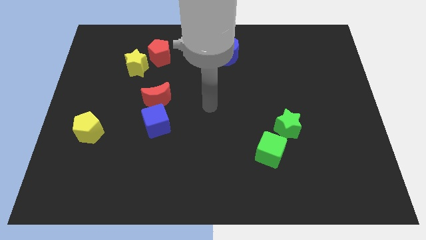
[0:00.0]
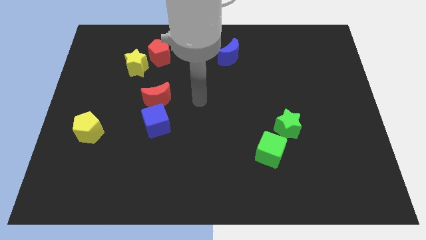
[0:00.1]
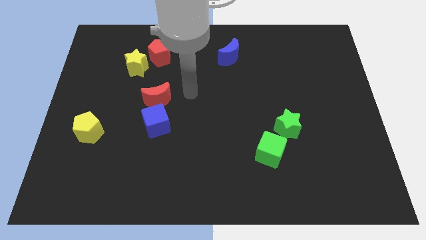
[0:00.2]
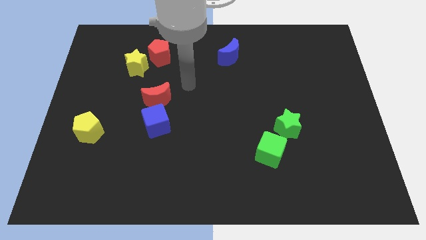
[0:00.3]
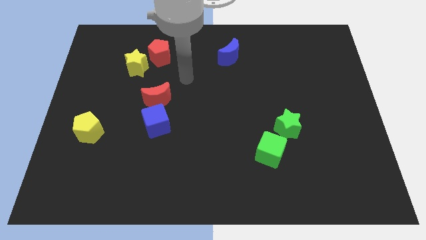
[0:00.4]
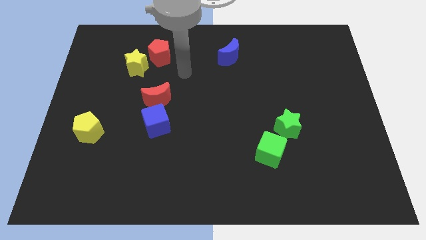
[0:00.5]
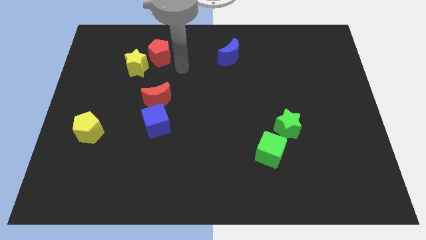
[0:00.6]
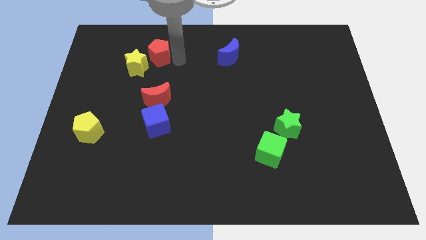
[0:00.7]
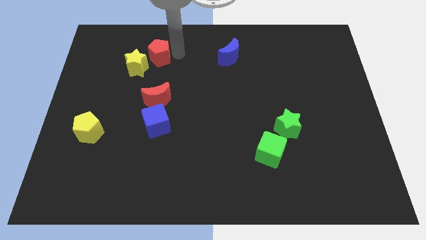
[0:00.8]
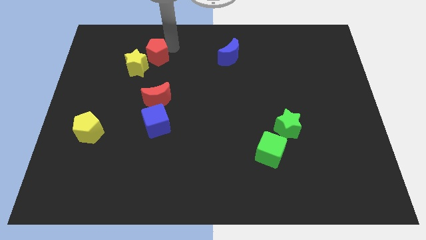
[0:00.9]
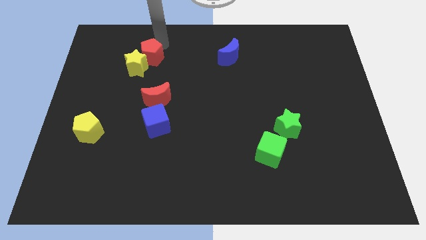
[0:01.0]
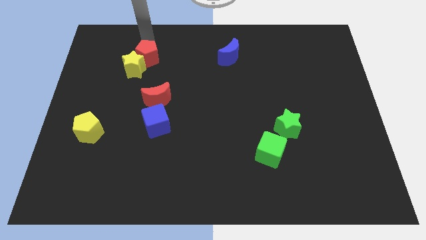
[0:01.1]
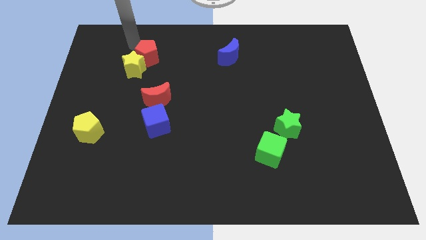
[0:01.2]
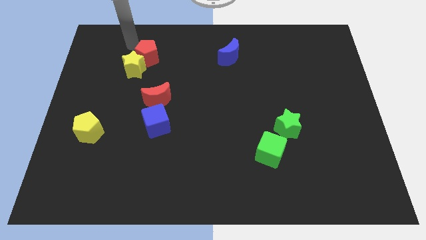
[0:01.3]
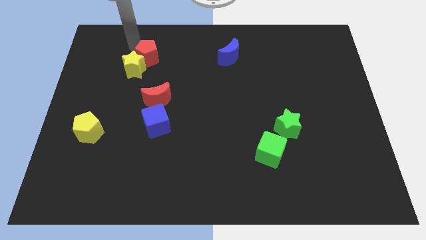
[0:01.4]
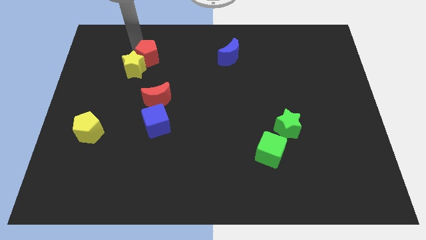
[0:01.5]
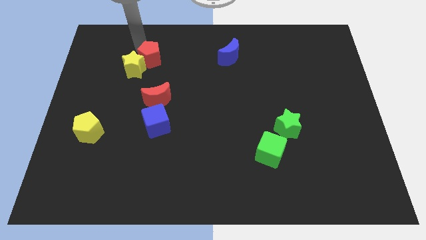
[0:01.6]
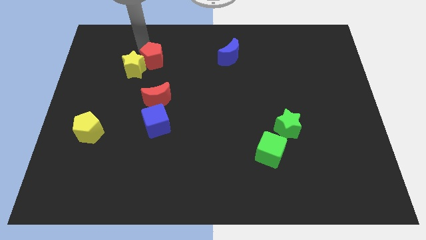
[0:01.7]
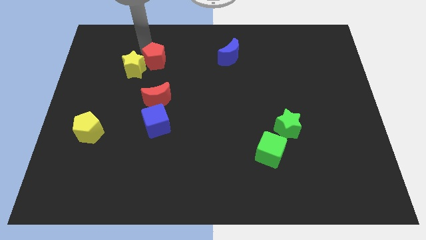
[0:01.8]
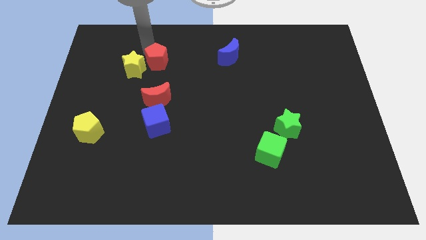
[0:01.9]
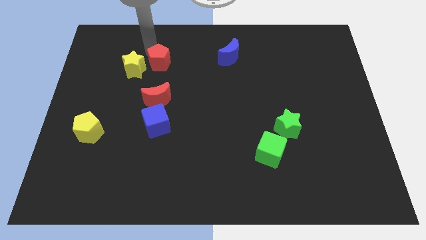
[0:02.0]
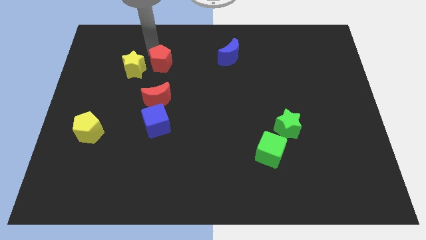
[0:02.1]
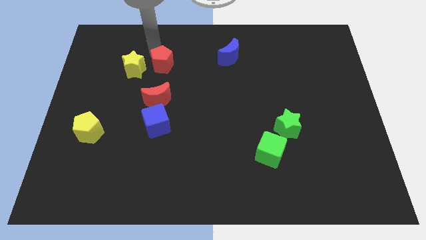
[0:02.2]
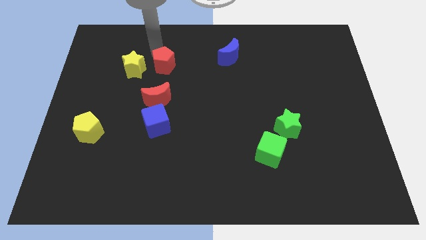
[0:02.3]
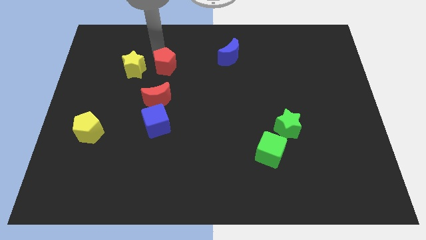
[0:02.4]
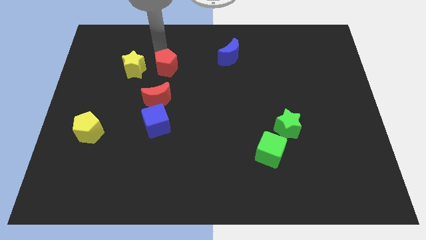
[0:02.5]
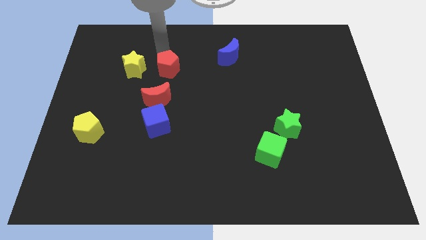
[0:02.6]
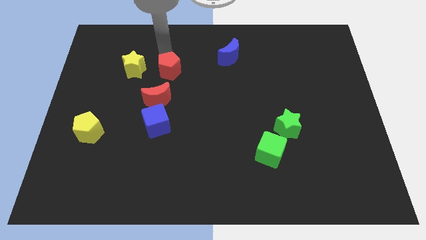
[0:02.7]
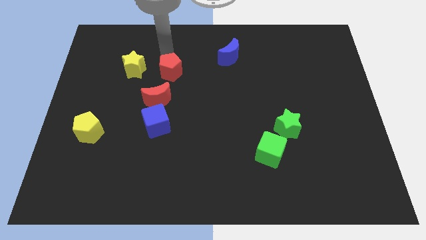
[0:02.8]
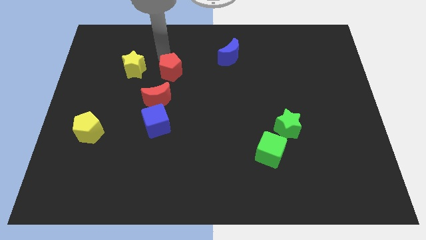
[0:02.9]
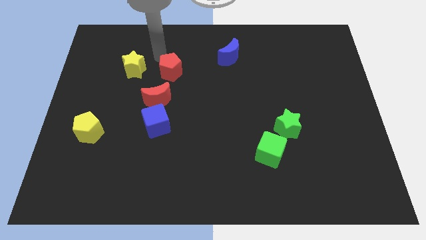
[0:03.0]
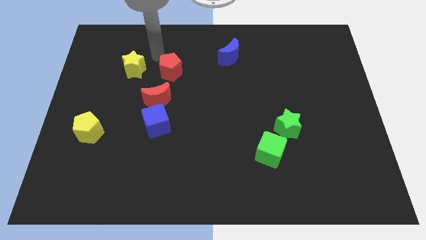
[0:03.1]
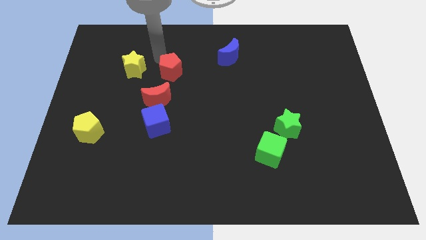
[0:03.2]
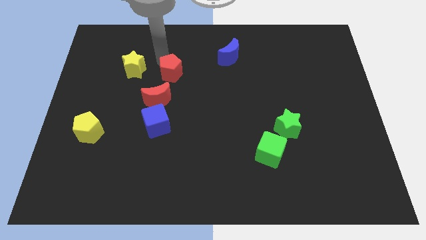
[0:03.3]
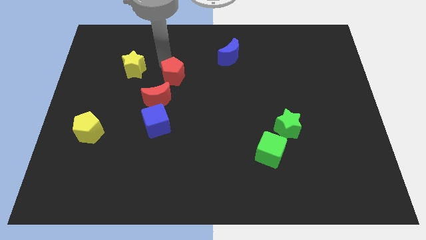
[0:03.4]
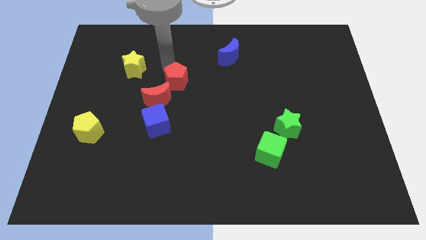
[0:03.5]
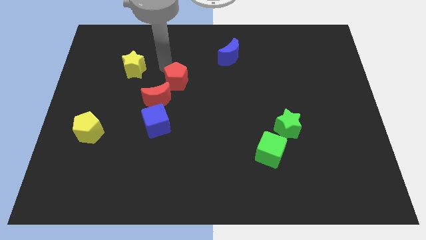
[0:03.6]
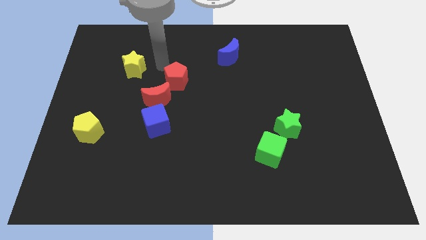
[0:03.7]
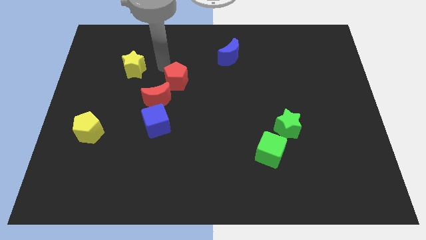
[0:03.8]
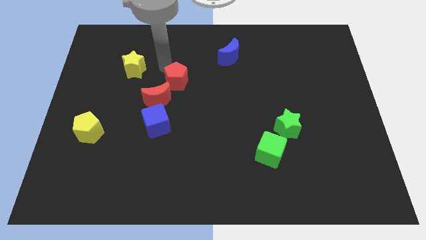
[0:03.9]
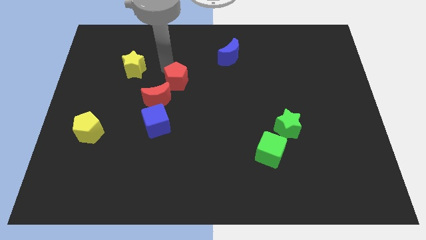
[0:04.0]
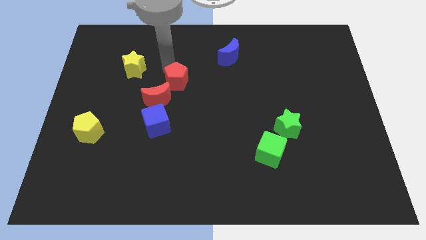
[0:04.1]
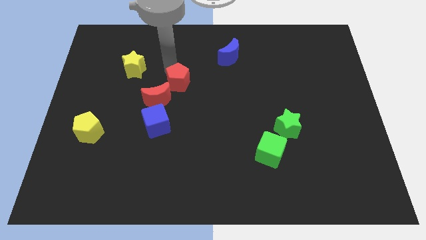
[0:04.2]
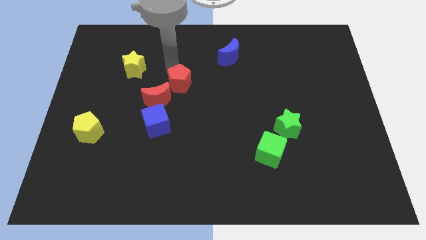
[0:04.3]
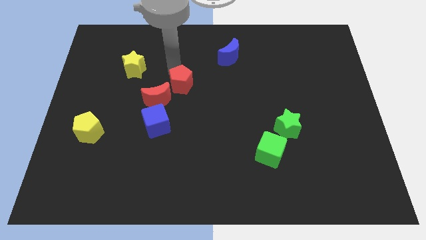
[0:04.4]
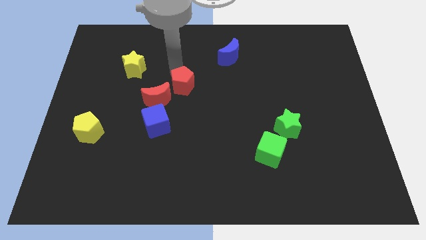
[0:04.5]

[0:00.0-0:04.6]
push the red pentagon just right of the red moon

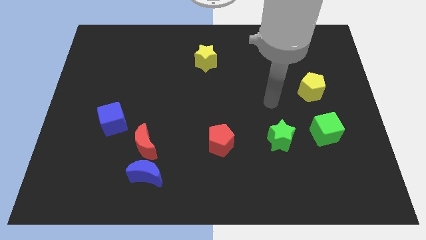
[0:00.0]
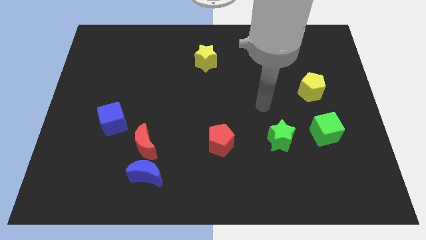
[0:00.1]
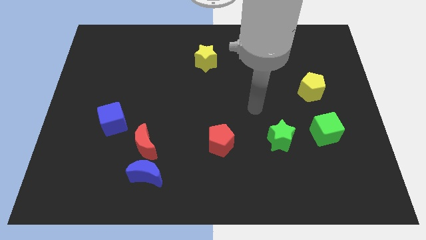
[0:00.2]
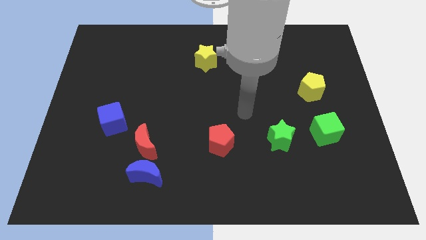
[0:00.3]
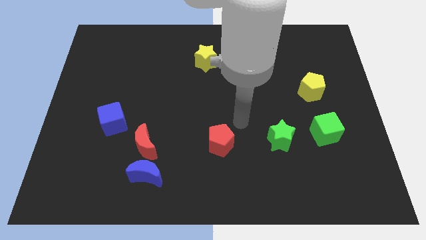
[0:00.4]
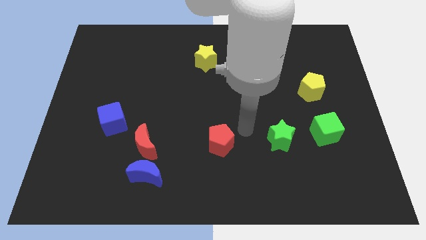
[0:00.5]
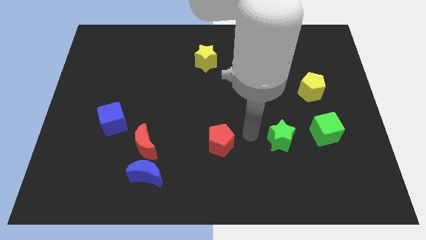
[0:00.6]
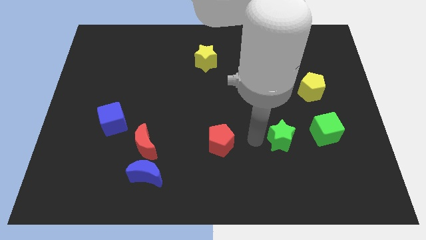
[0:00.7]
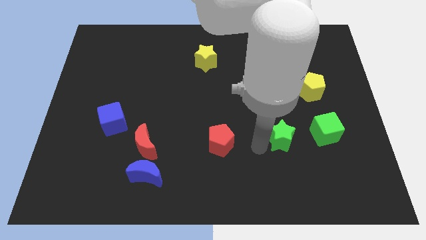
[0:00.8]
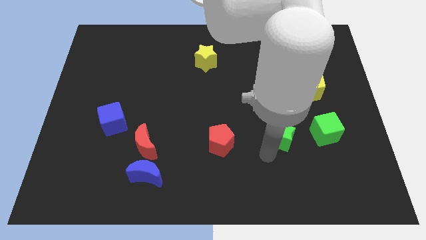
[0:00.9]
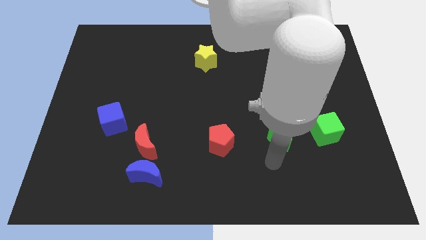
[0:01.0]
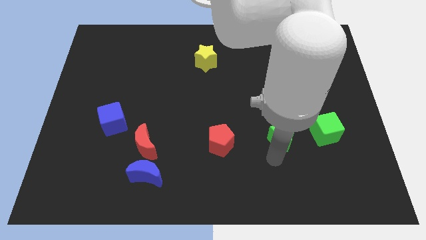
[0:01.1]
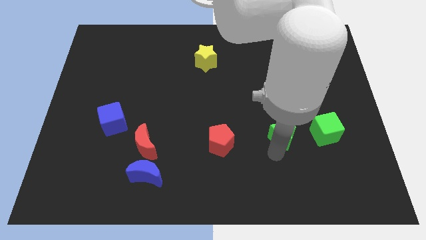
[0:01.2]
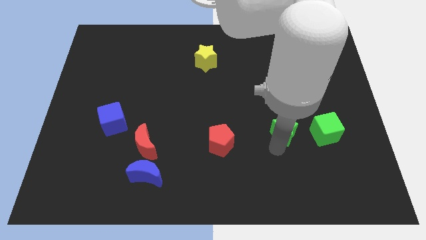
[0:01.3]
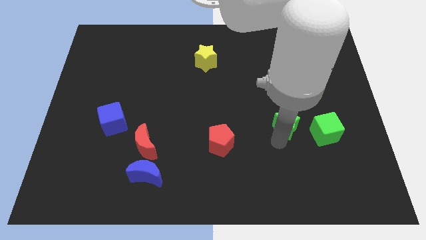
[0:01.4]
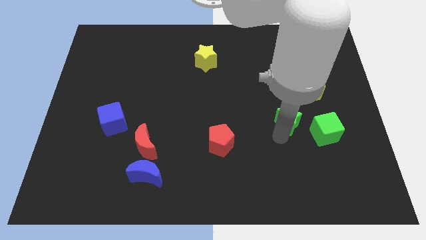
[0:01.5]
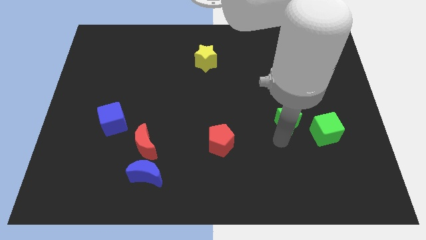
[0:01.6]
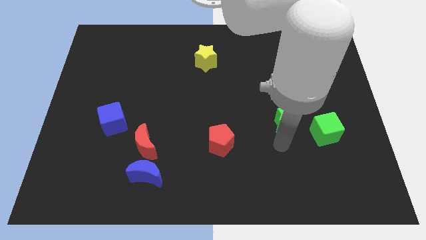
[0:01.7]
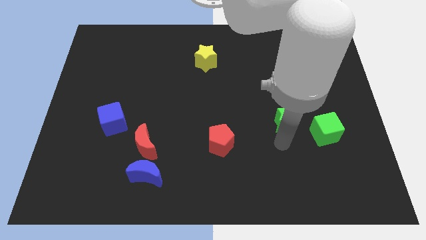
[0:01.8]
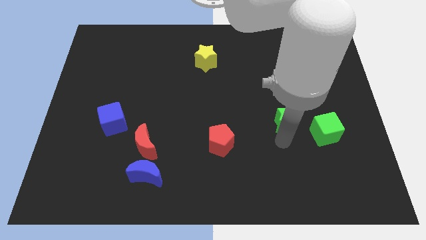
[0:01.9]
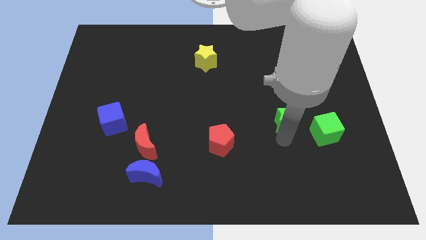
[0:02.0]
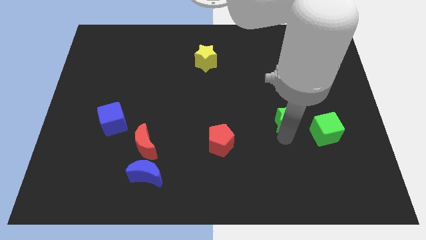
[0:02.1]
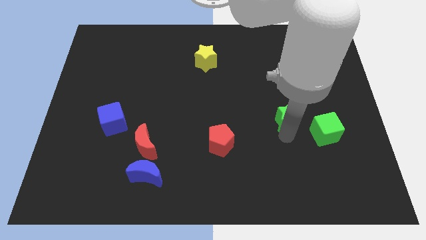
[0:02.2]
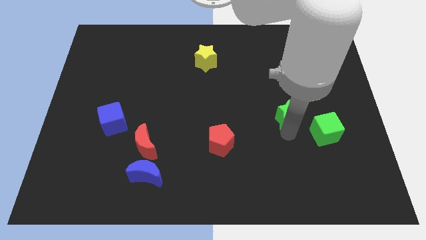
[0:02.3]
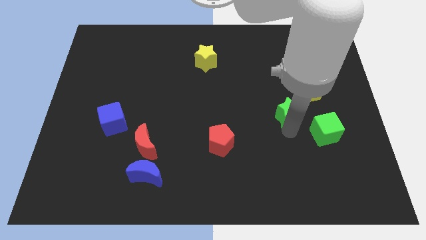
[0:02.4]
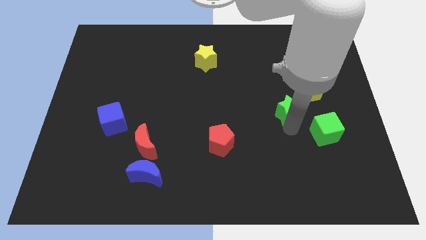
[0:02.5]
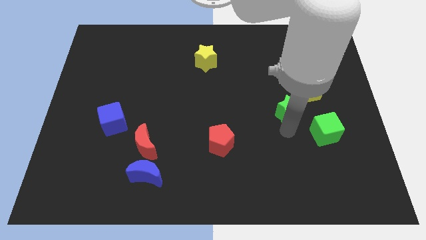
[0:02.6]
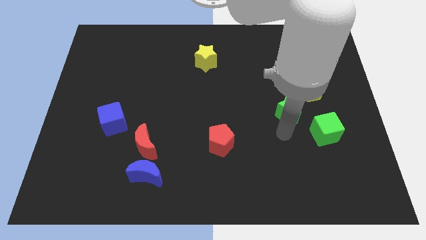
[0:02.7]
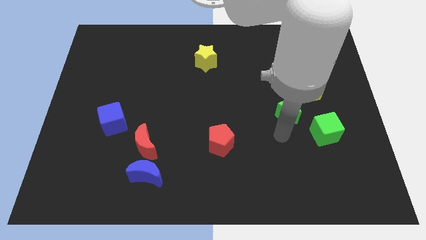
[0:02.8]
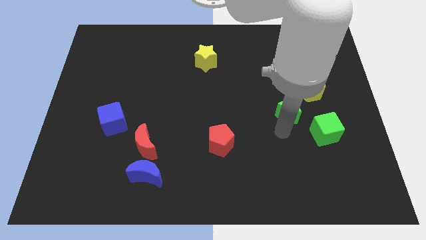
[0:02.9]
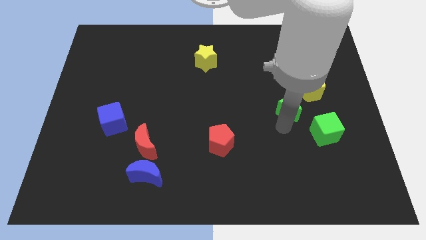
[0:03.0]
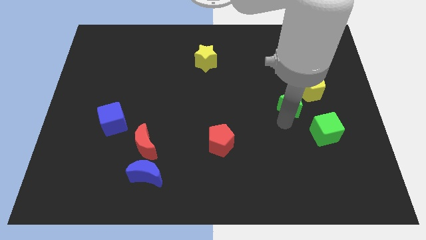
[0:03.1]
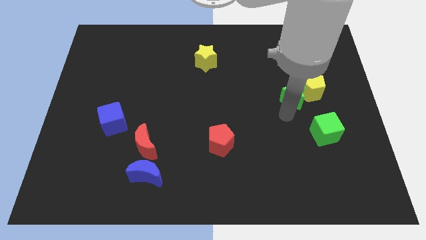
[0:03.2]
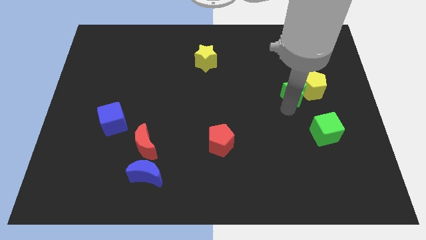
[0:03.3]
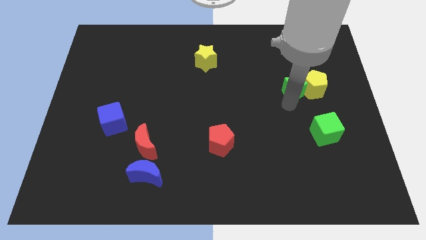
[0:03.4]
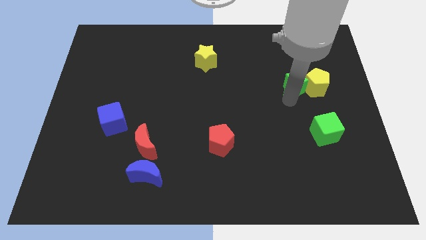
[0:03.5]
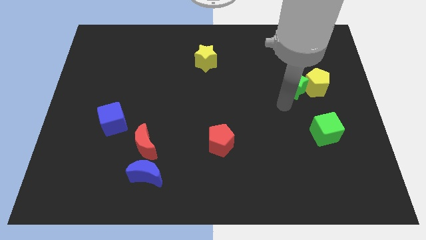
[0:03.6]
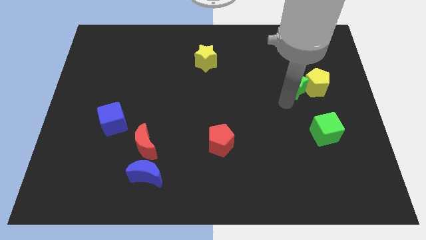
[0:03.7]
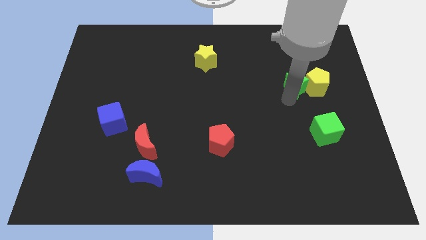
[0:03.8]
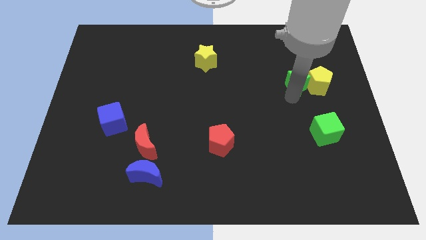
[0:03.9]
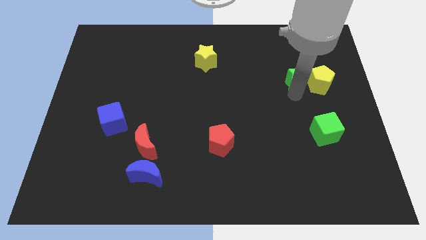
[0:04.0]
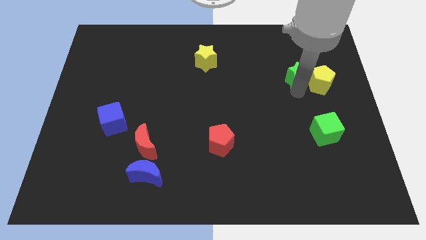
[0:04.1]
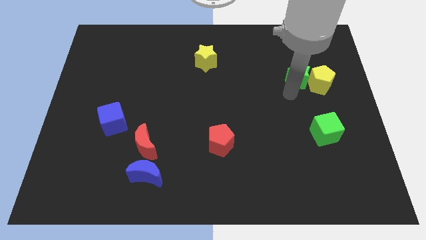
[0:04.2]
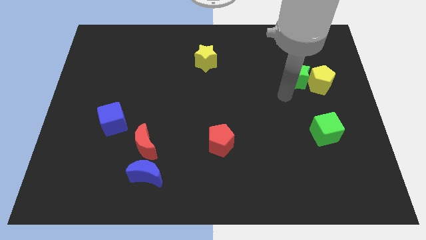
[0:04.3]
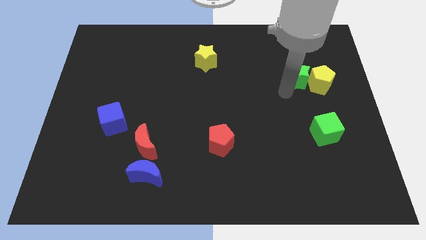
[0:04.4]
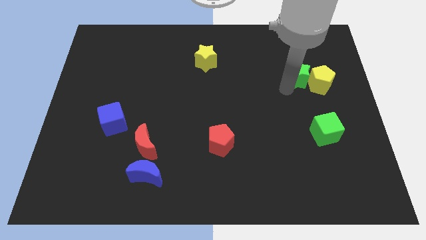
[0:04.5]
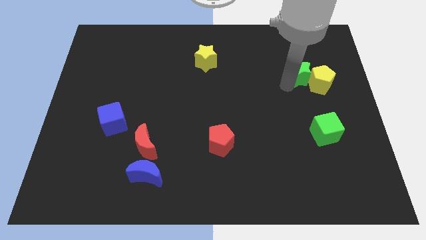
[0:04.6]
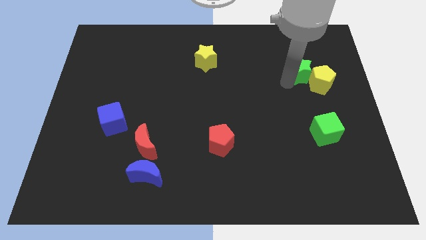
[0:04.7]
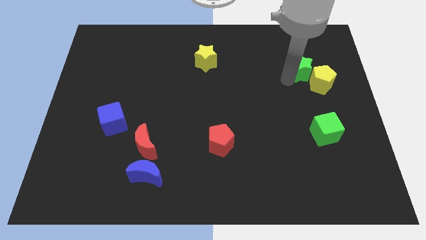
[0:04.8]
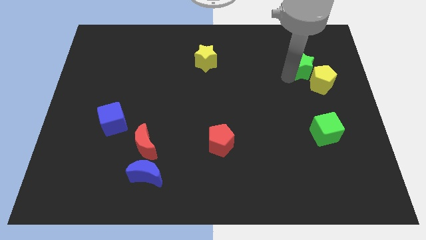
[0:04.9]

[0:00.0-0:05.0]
put the green star to the top of the yellow pentagon
